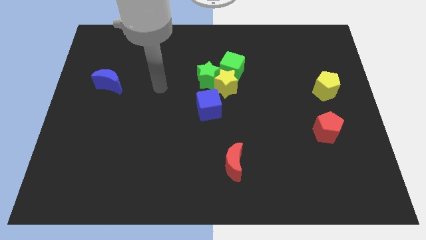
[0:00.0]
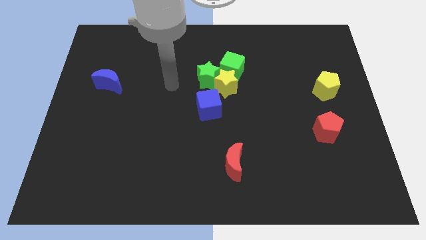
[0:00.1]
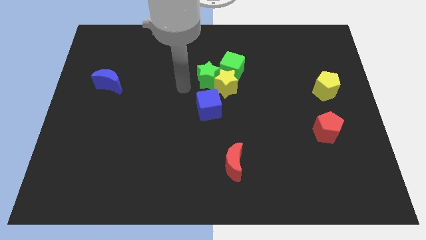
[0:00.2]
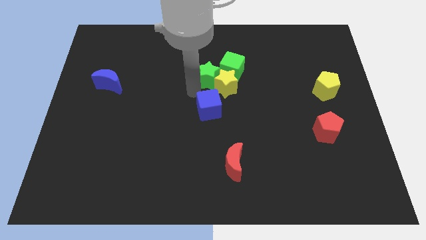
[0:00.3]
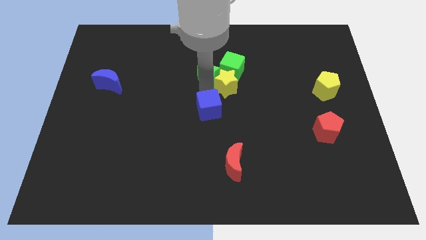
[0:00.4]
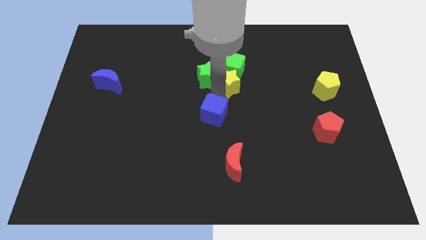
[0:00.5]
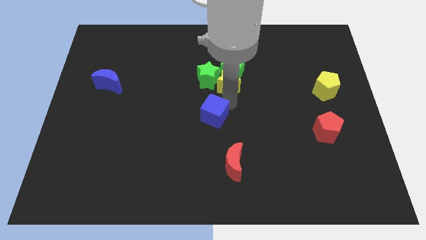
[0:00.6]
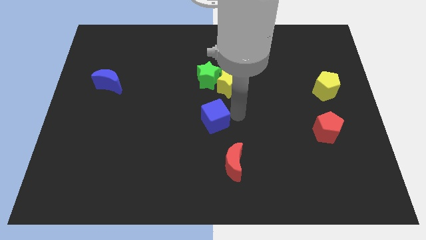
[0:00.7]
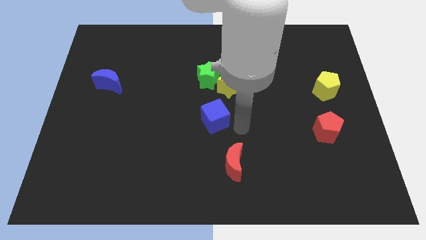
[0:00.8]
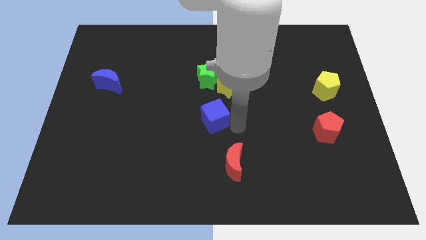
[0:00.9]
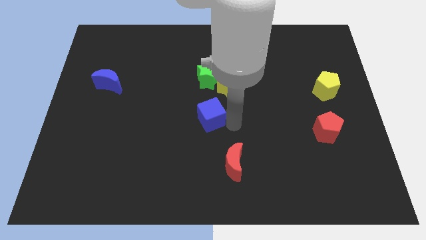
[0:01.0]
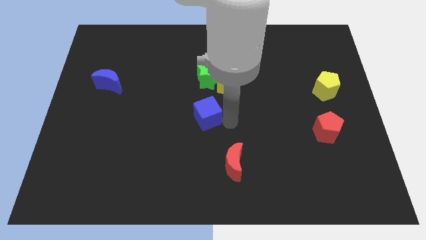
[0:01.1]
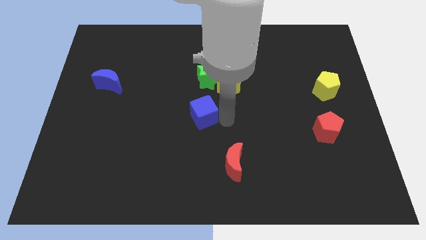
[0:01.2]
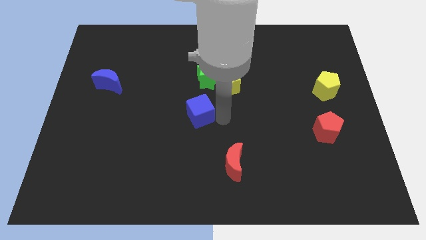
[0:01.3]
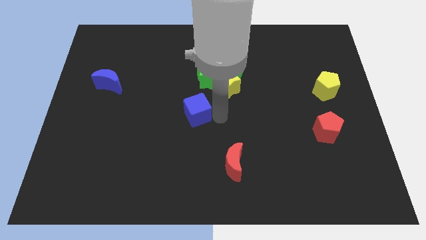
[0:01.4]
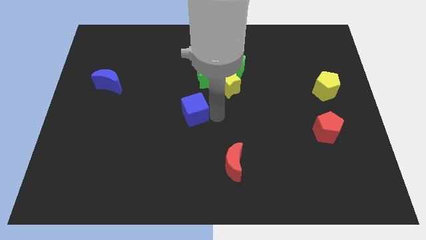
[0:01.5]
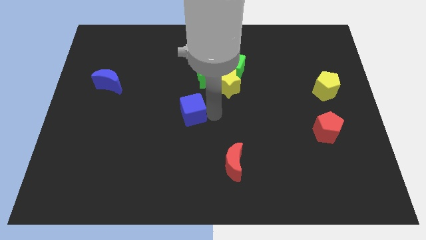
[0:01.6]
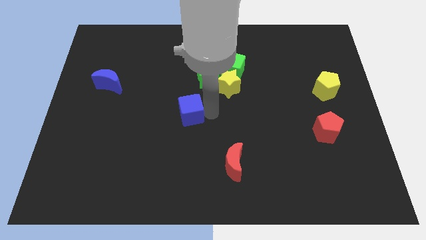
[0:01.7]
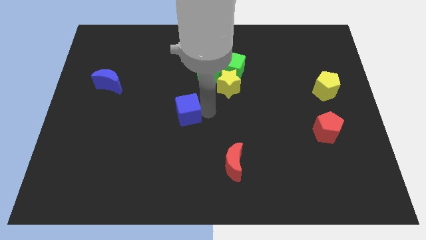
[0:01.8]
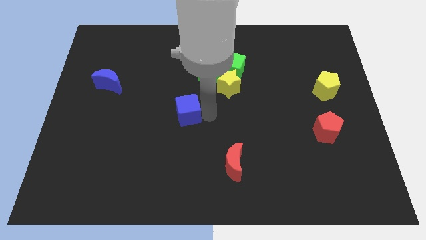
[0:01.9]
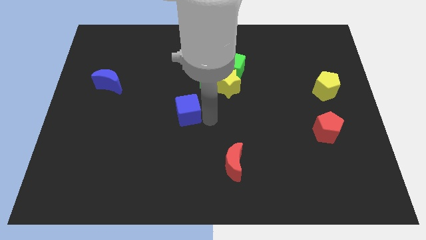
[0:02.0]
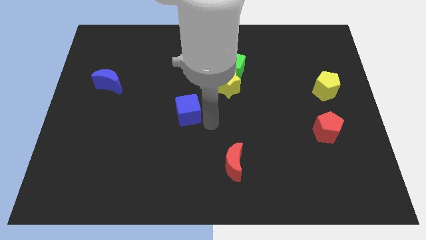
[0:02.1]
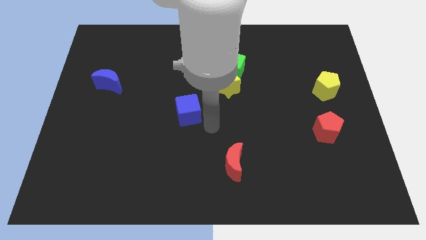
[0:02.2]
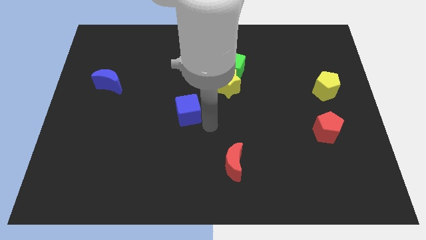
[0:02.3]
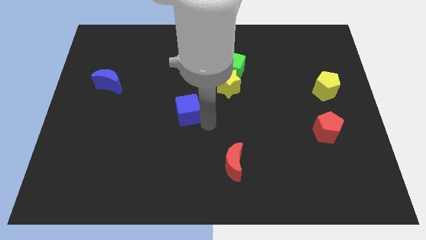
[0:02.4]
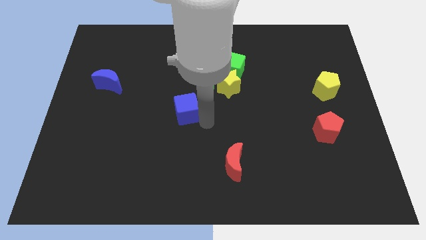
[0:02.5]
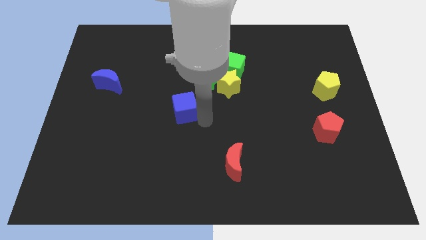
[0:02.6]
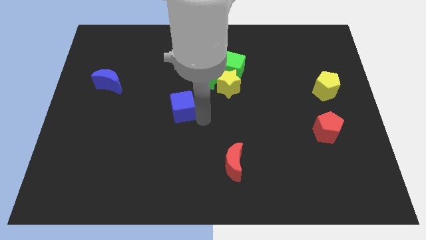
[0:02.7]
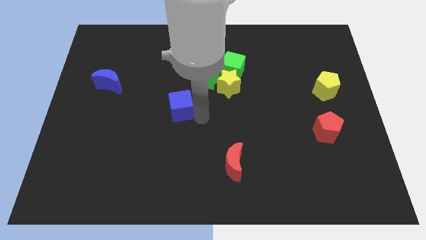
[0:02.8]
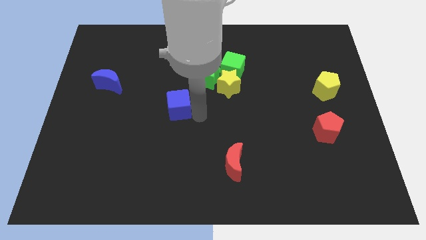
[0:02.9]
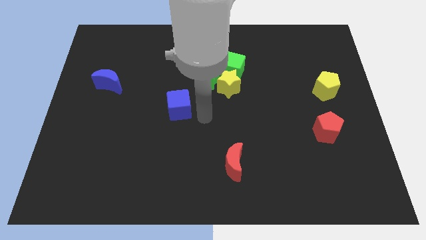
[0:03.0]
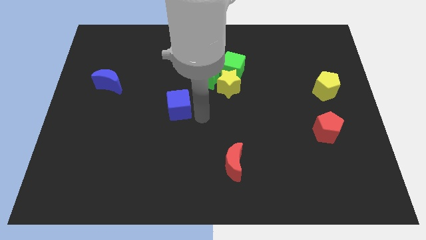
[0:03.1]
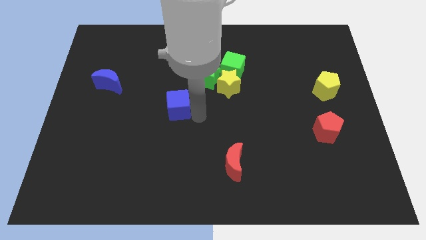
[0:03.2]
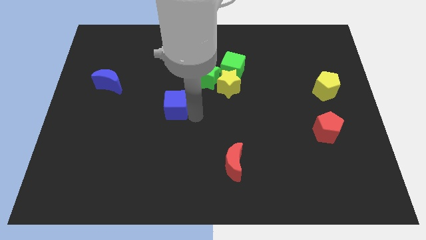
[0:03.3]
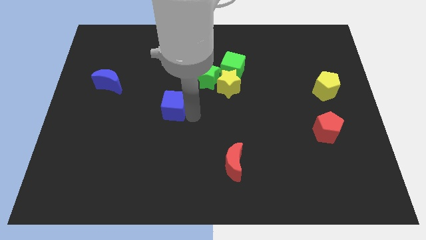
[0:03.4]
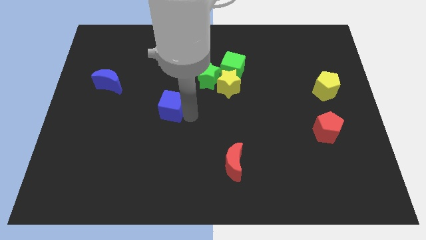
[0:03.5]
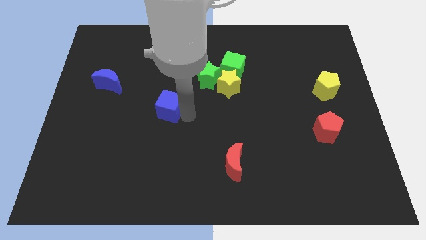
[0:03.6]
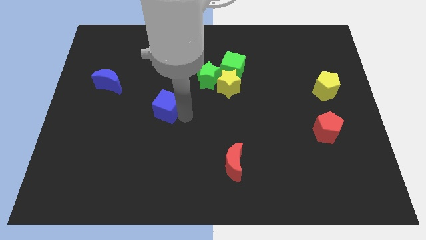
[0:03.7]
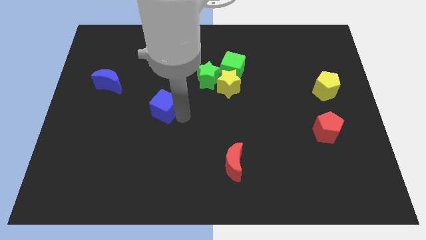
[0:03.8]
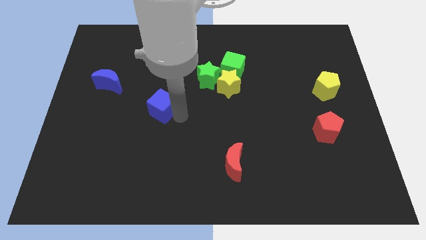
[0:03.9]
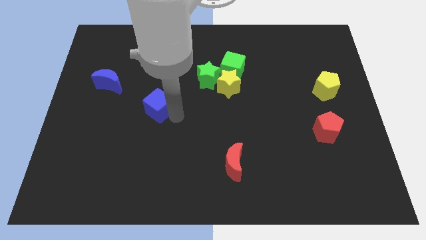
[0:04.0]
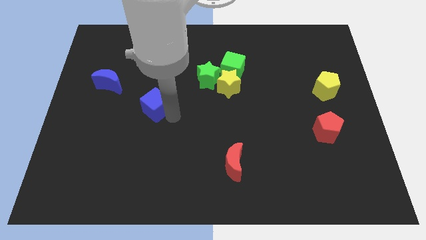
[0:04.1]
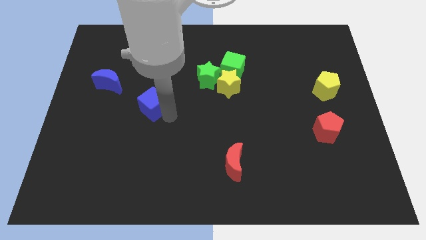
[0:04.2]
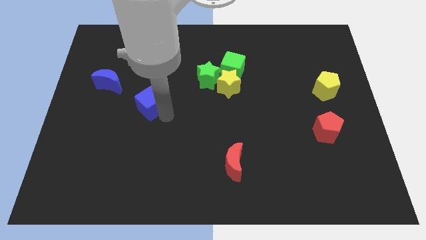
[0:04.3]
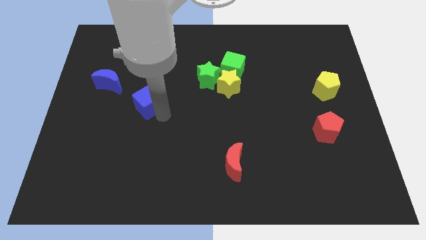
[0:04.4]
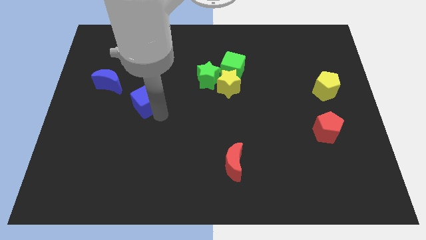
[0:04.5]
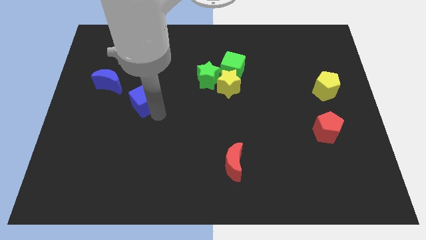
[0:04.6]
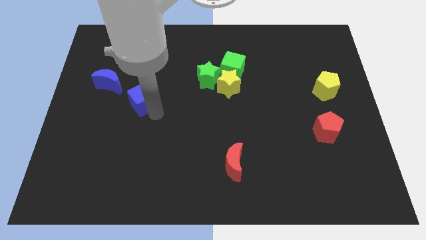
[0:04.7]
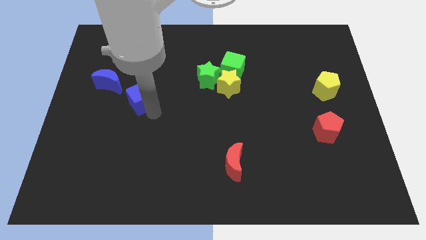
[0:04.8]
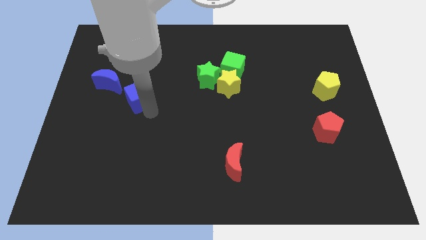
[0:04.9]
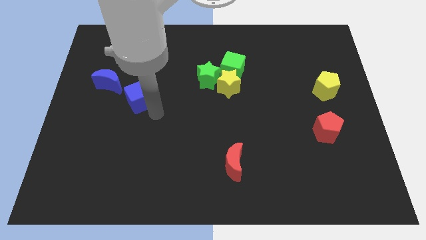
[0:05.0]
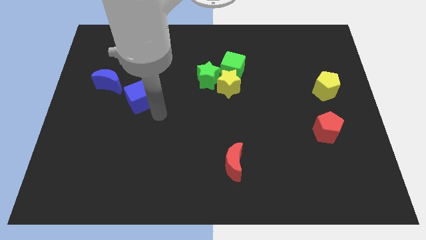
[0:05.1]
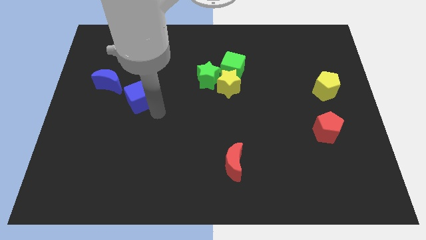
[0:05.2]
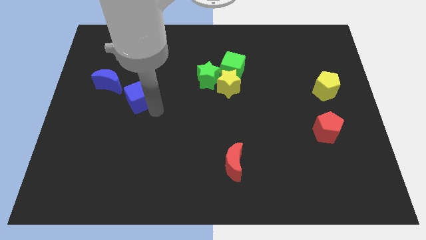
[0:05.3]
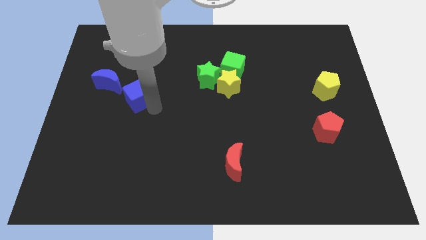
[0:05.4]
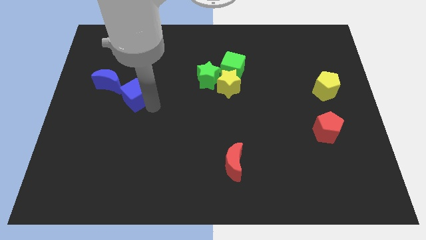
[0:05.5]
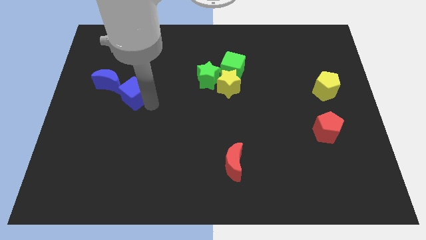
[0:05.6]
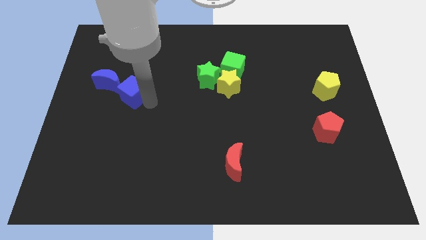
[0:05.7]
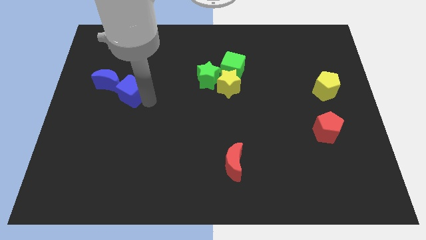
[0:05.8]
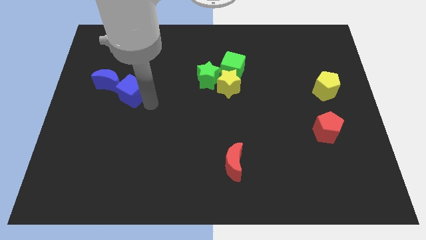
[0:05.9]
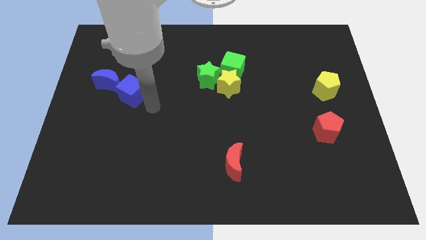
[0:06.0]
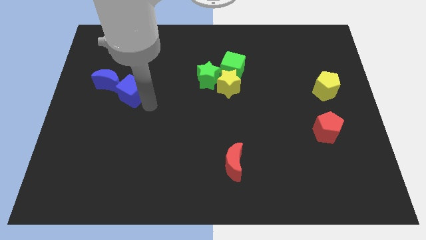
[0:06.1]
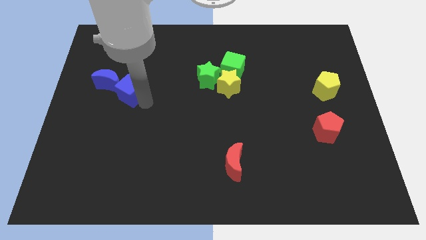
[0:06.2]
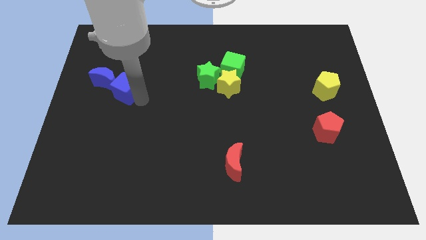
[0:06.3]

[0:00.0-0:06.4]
put the blue cube towards the blue moon

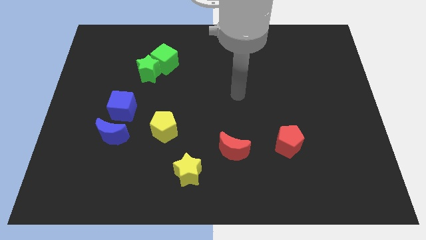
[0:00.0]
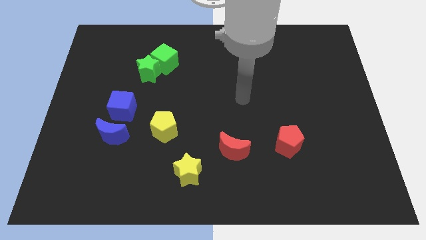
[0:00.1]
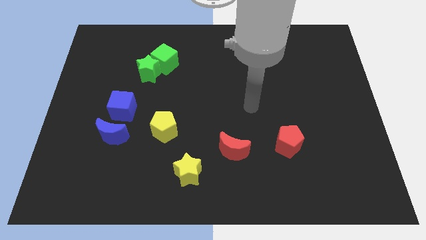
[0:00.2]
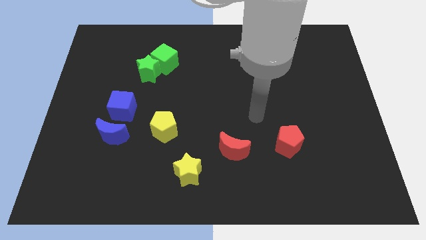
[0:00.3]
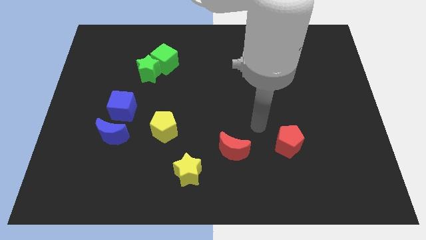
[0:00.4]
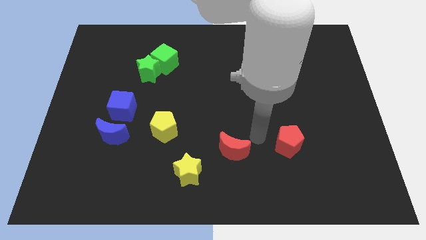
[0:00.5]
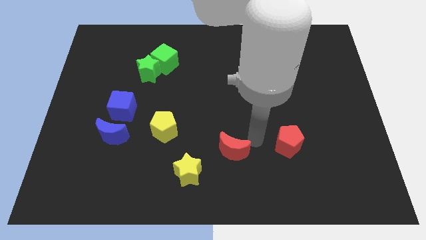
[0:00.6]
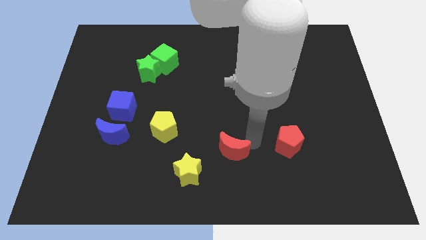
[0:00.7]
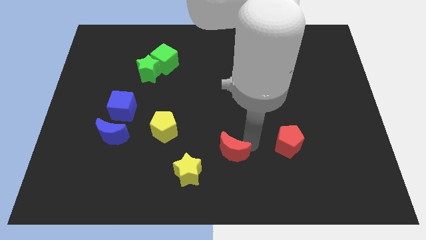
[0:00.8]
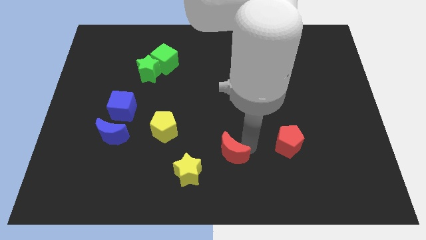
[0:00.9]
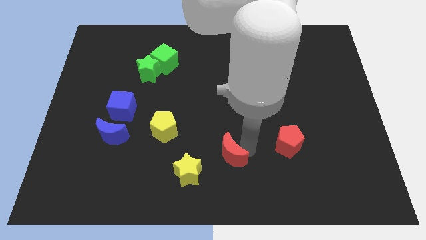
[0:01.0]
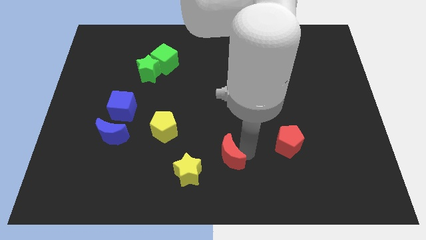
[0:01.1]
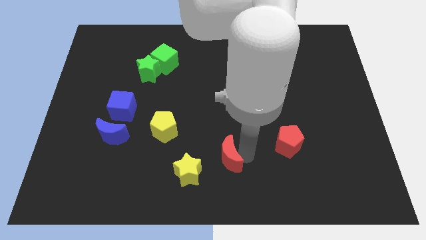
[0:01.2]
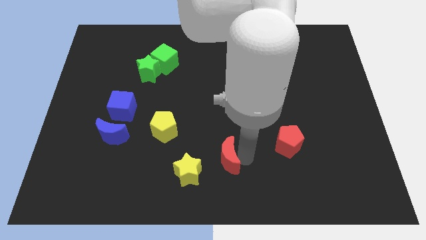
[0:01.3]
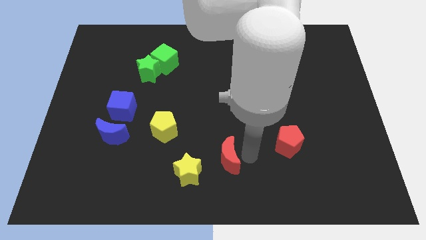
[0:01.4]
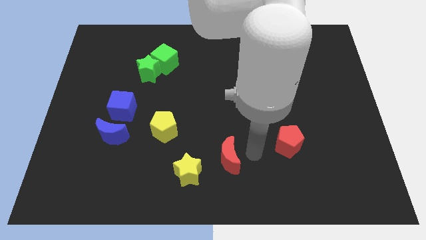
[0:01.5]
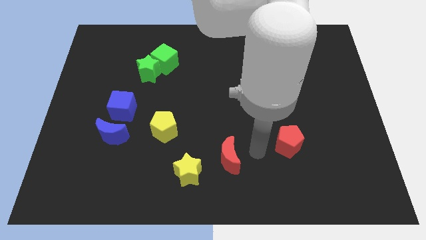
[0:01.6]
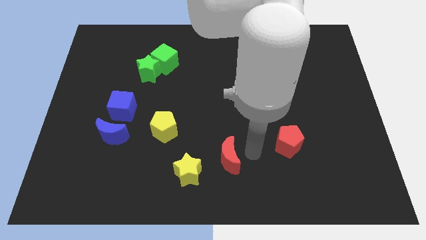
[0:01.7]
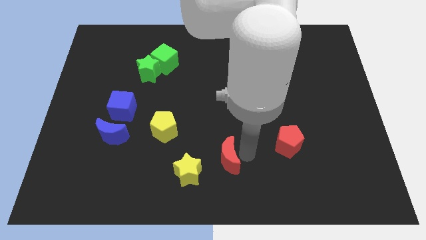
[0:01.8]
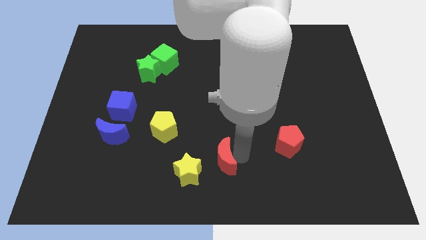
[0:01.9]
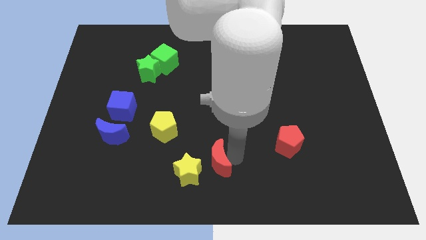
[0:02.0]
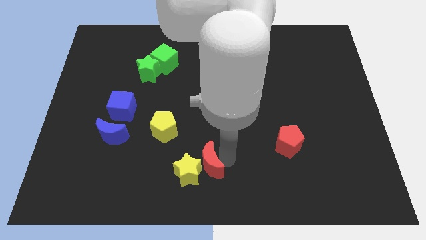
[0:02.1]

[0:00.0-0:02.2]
move the red moon next to the yellow star
